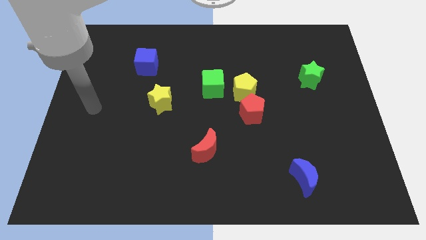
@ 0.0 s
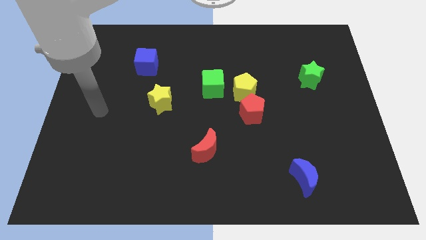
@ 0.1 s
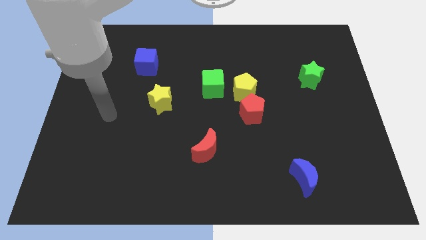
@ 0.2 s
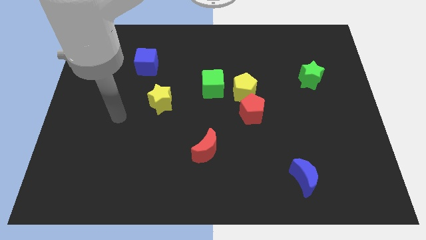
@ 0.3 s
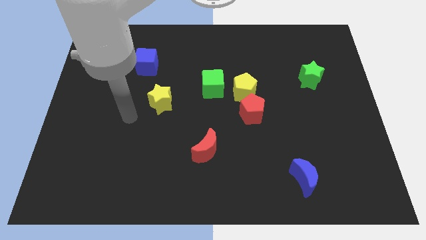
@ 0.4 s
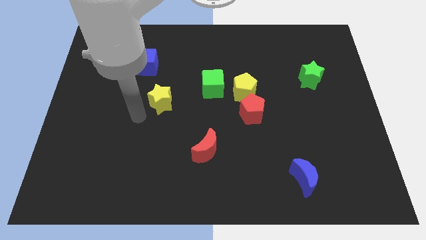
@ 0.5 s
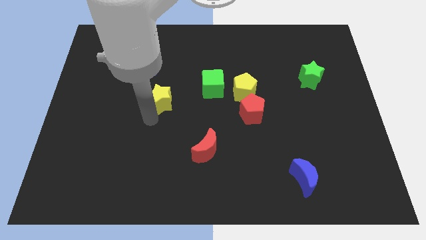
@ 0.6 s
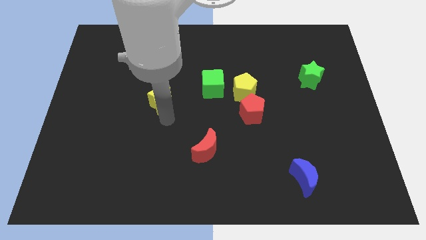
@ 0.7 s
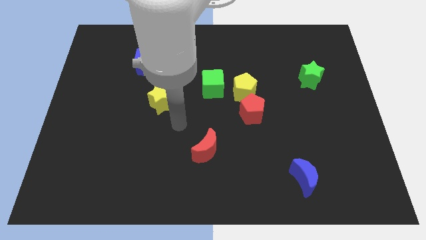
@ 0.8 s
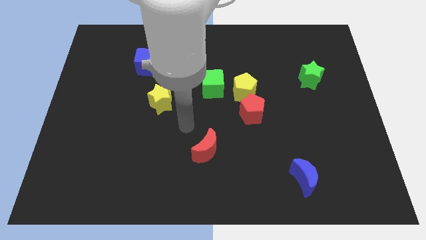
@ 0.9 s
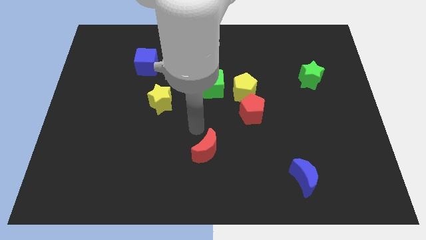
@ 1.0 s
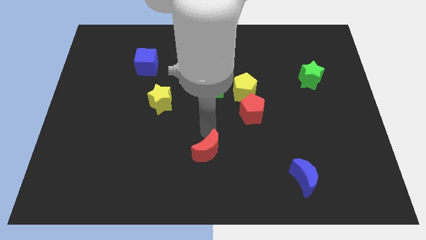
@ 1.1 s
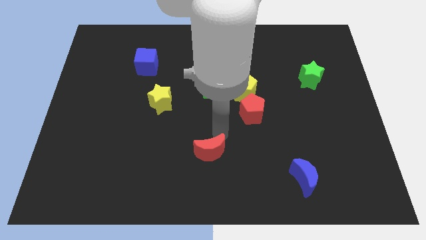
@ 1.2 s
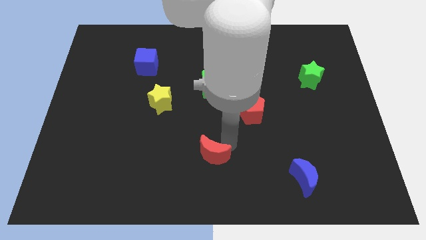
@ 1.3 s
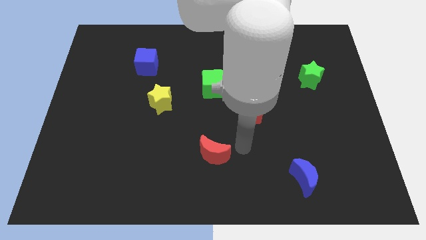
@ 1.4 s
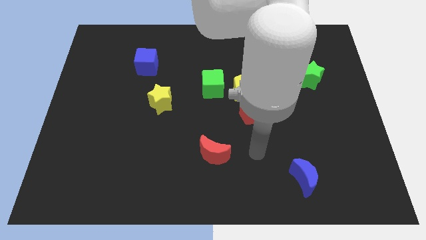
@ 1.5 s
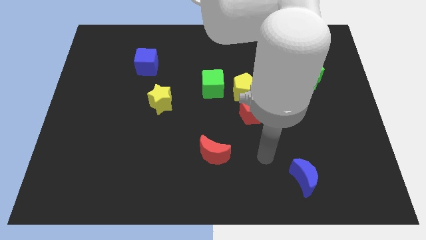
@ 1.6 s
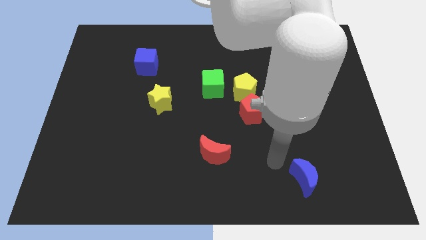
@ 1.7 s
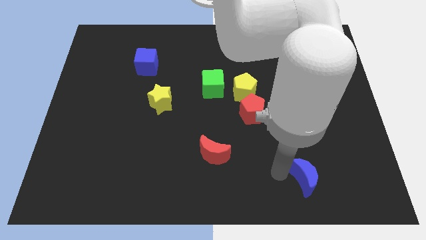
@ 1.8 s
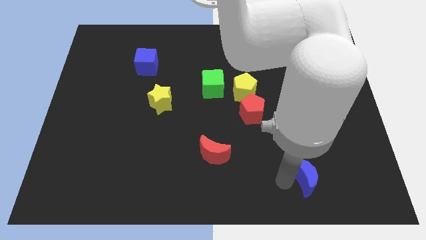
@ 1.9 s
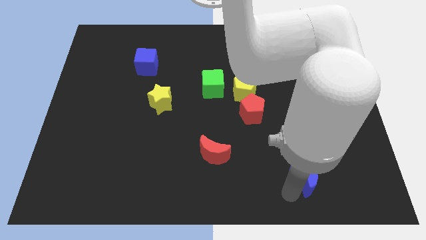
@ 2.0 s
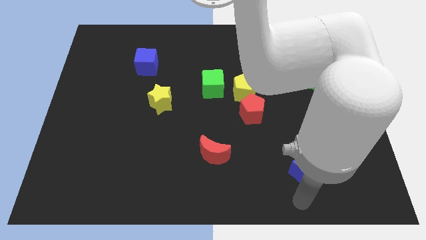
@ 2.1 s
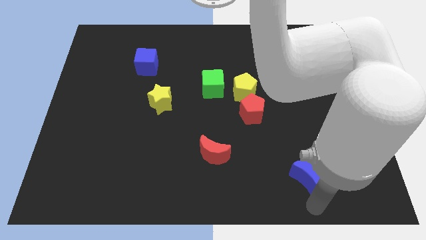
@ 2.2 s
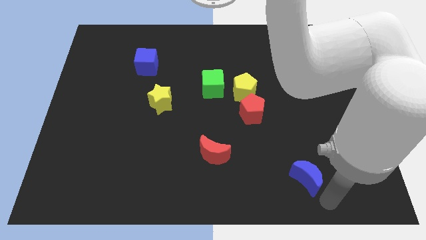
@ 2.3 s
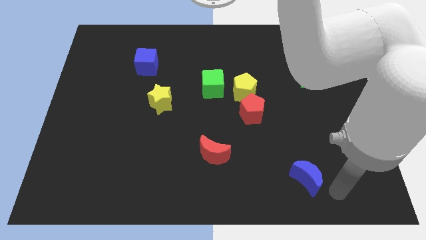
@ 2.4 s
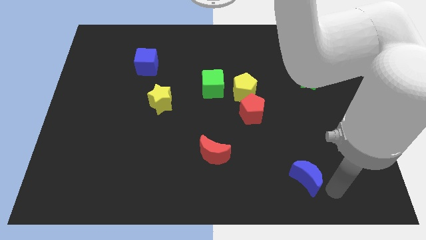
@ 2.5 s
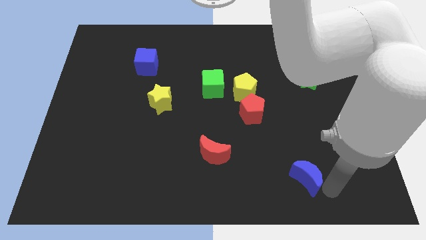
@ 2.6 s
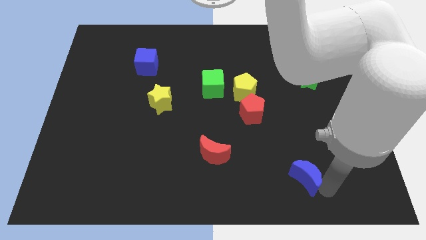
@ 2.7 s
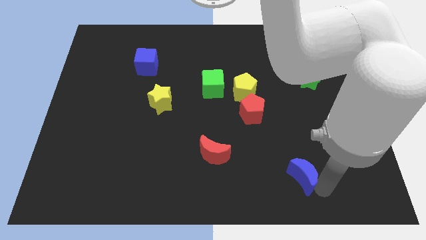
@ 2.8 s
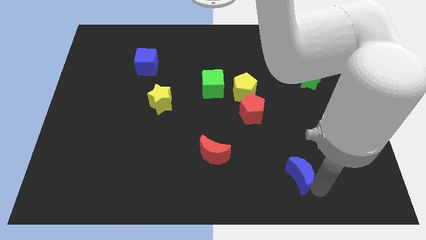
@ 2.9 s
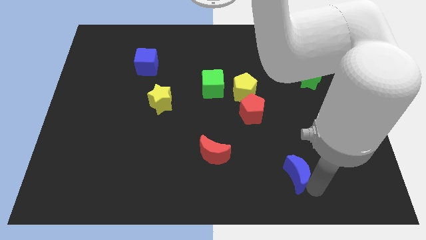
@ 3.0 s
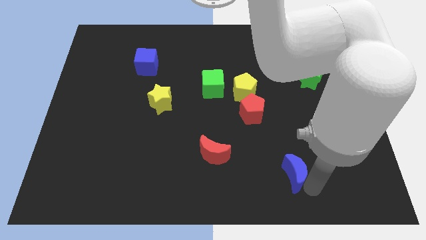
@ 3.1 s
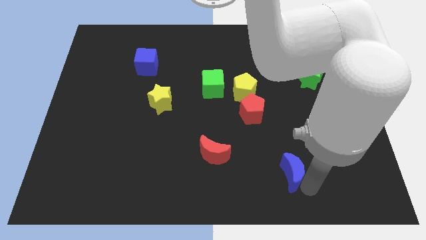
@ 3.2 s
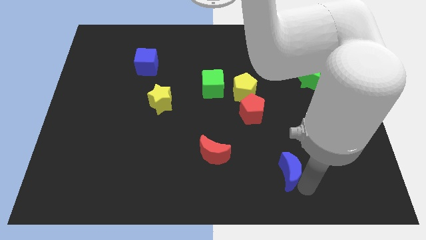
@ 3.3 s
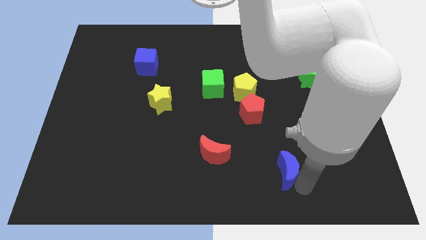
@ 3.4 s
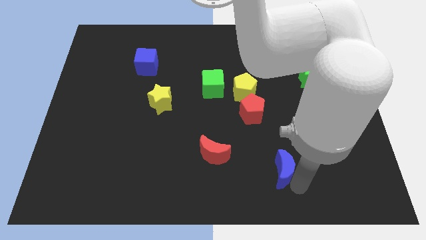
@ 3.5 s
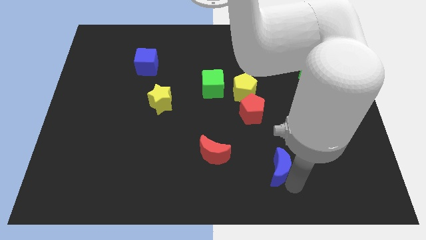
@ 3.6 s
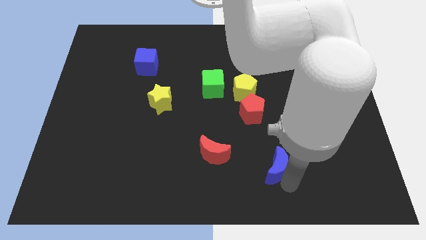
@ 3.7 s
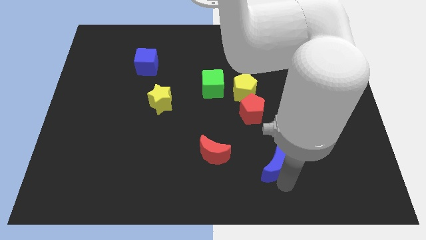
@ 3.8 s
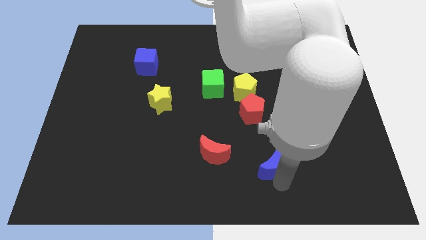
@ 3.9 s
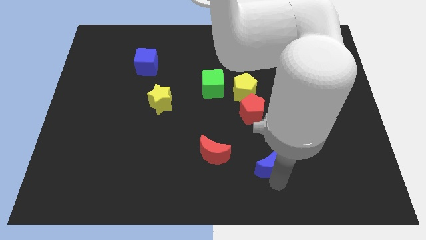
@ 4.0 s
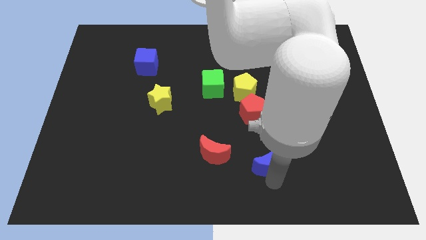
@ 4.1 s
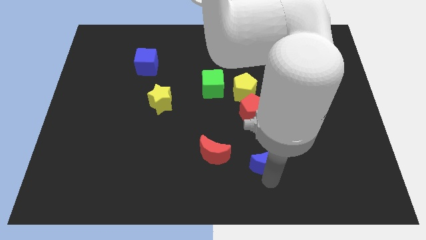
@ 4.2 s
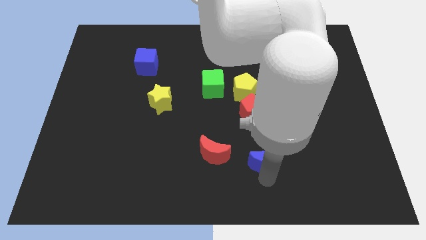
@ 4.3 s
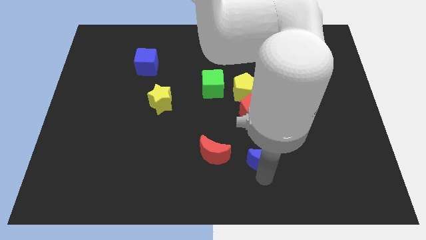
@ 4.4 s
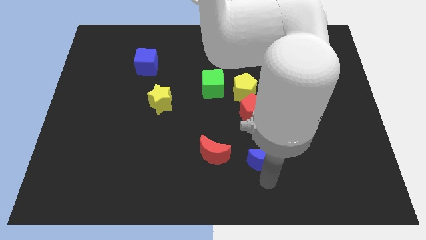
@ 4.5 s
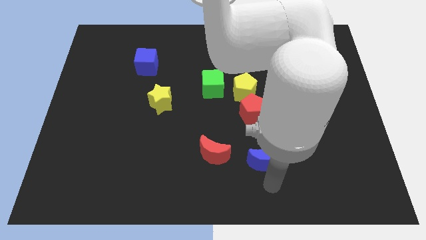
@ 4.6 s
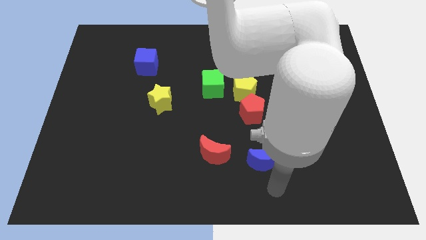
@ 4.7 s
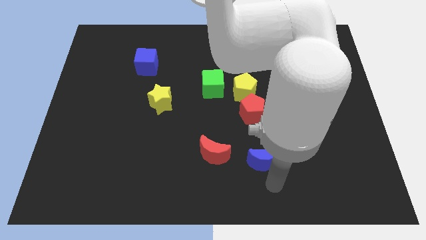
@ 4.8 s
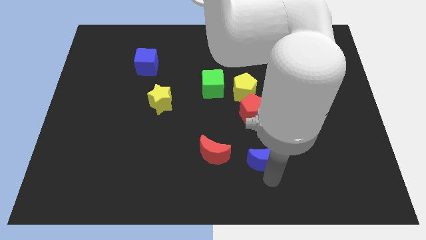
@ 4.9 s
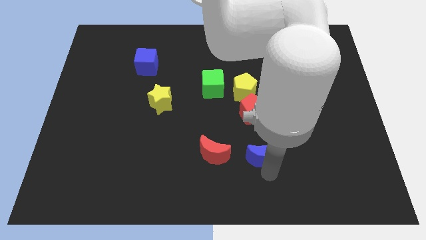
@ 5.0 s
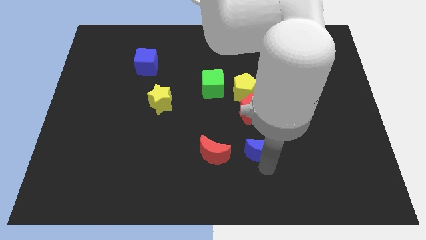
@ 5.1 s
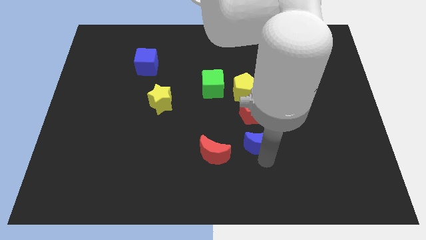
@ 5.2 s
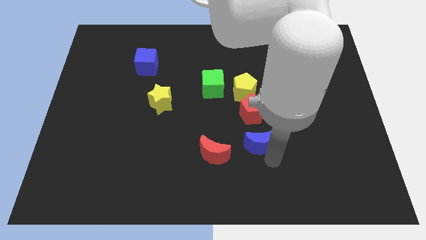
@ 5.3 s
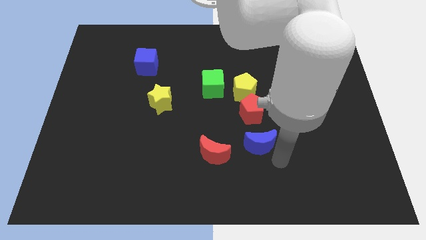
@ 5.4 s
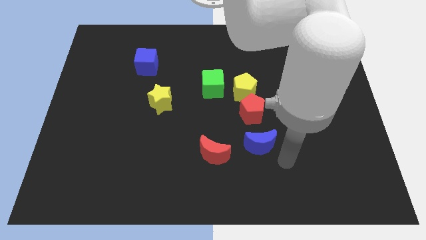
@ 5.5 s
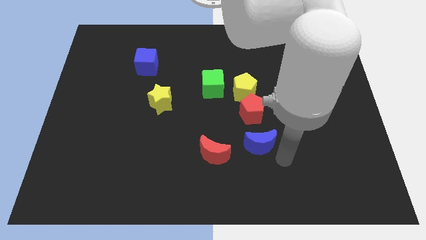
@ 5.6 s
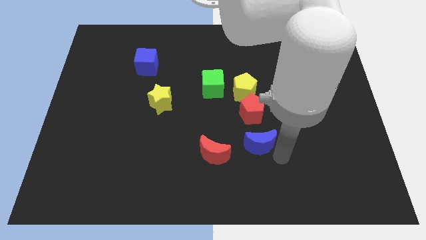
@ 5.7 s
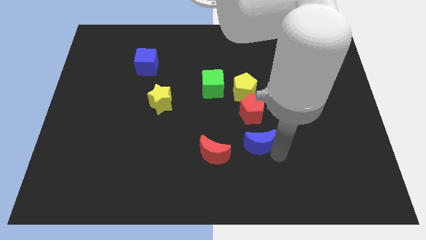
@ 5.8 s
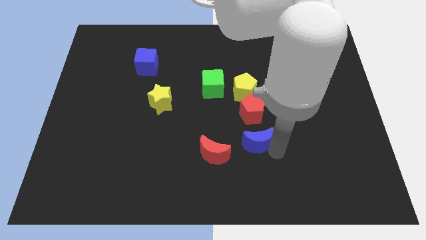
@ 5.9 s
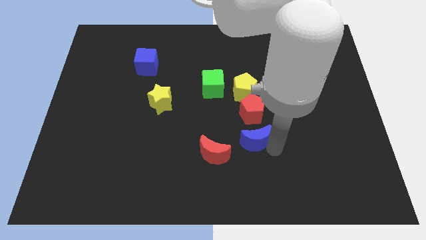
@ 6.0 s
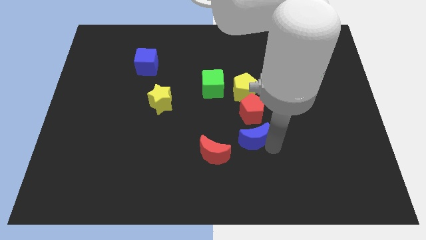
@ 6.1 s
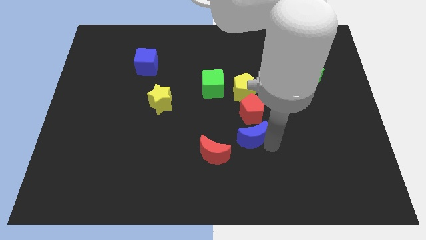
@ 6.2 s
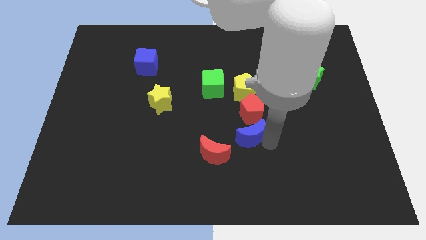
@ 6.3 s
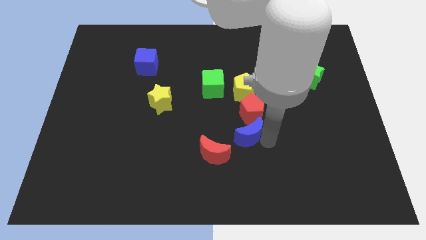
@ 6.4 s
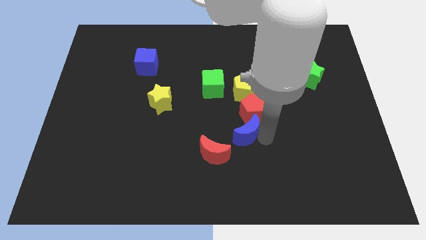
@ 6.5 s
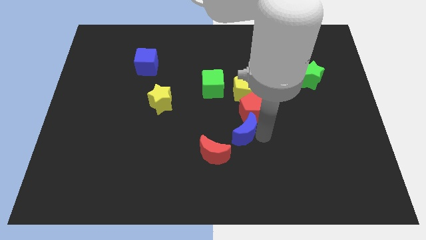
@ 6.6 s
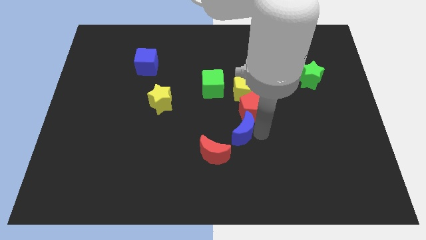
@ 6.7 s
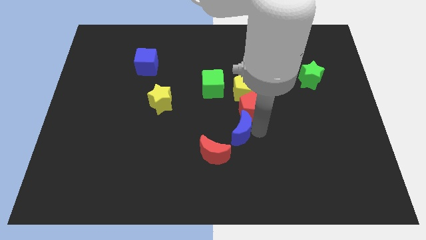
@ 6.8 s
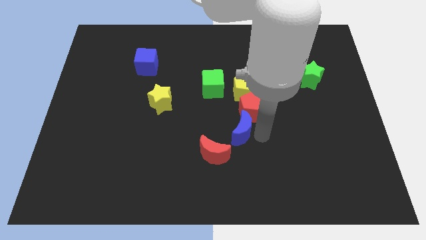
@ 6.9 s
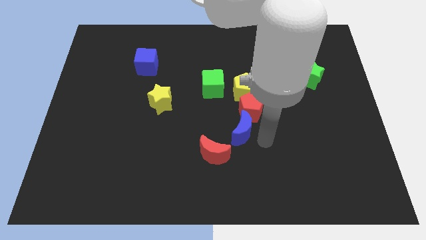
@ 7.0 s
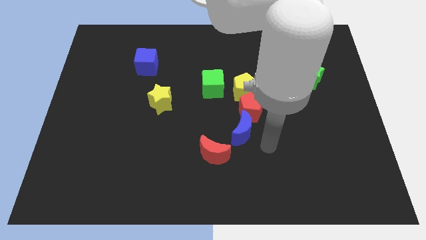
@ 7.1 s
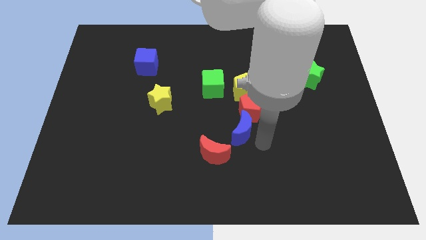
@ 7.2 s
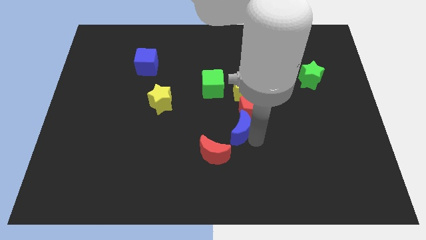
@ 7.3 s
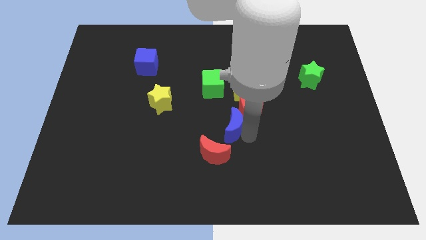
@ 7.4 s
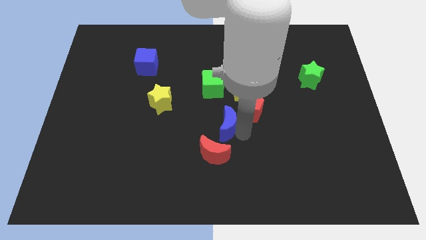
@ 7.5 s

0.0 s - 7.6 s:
push the blue moon up and then to the left

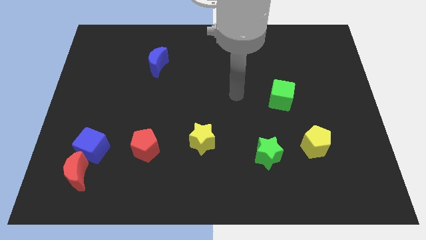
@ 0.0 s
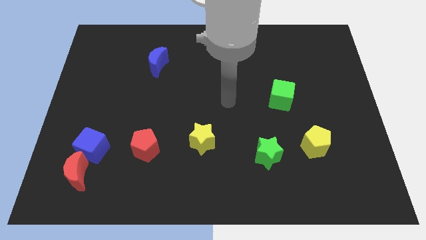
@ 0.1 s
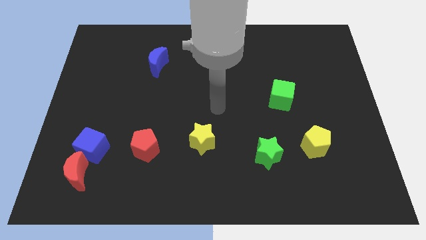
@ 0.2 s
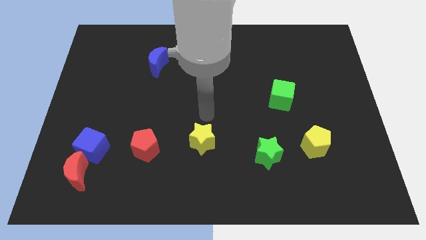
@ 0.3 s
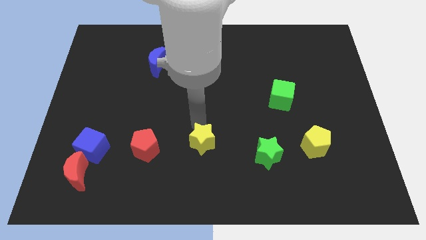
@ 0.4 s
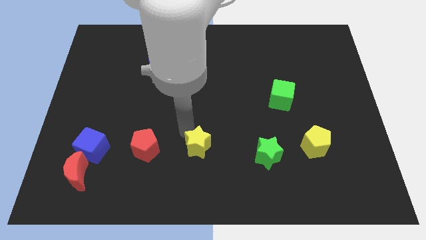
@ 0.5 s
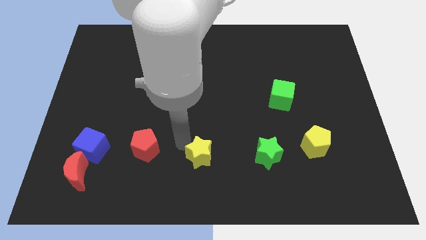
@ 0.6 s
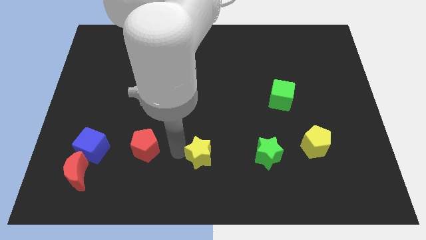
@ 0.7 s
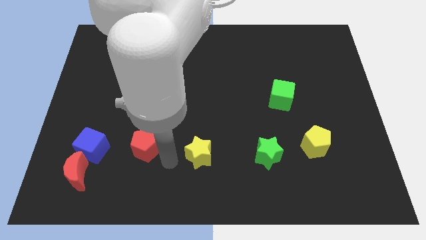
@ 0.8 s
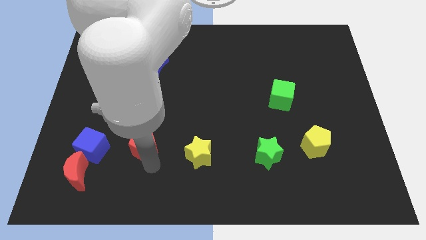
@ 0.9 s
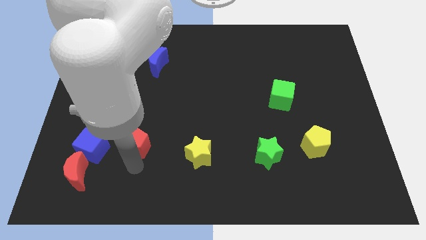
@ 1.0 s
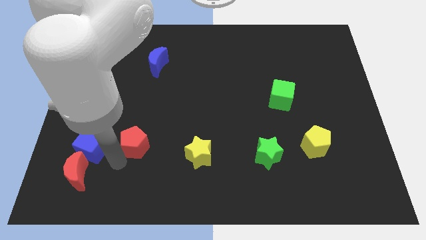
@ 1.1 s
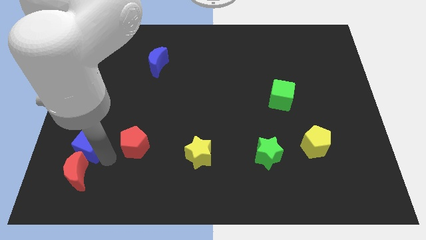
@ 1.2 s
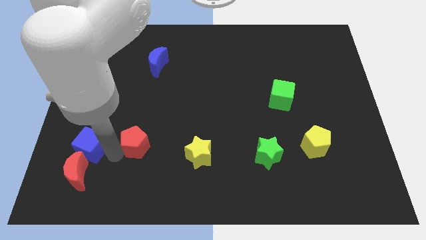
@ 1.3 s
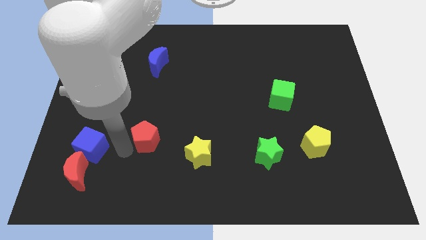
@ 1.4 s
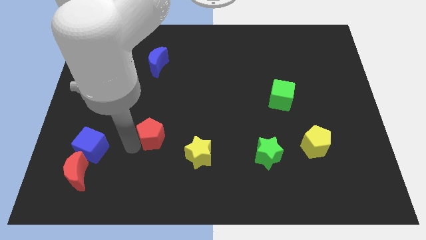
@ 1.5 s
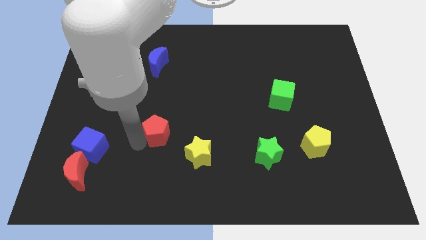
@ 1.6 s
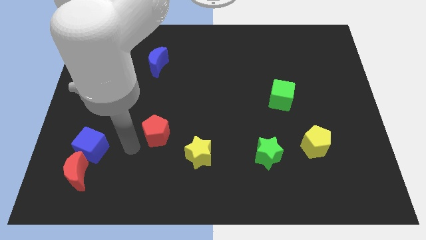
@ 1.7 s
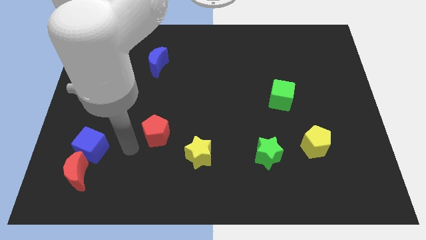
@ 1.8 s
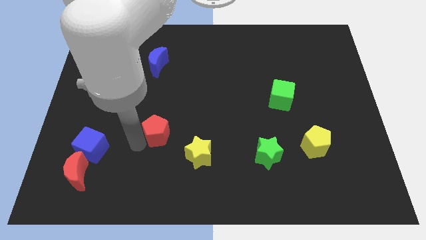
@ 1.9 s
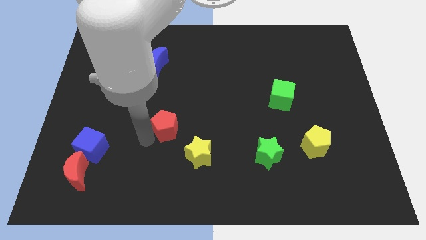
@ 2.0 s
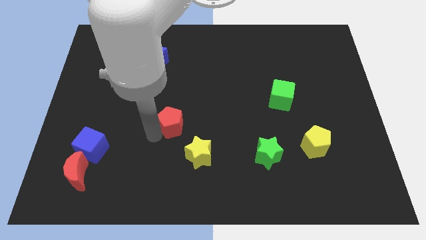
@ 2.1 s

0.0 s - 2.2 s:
slightly slide the red pentagon diagonally up and to the right
